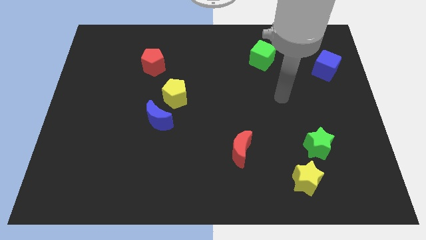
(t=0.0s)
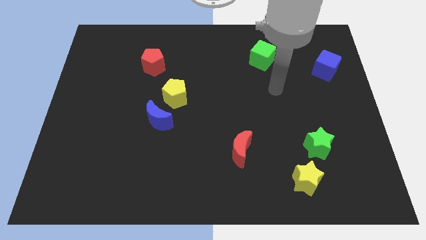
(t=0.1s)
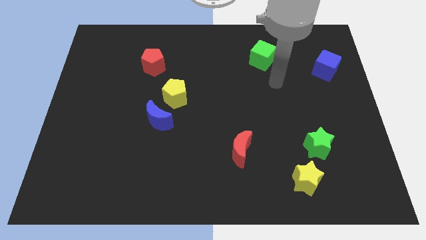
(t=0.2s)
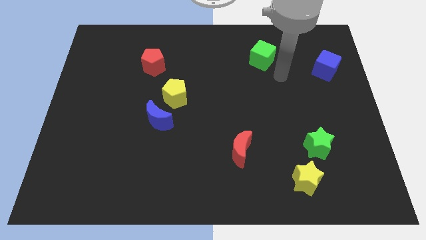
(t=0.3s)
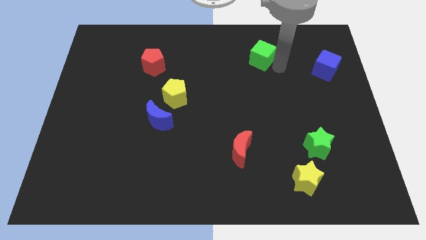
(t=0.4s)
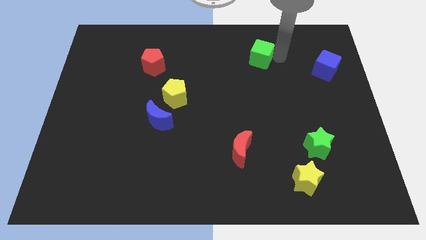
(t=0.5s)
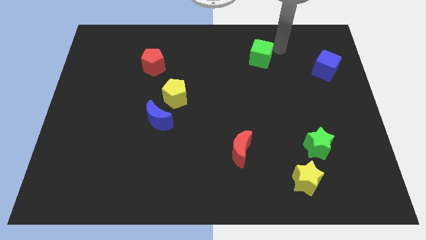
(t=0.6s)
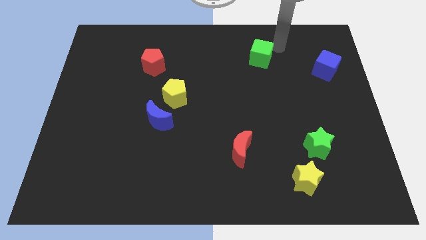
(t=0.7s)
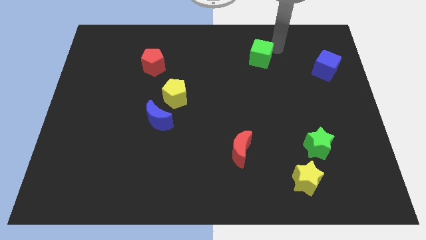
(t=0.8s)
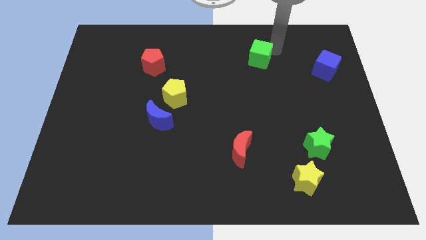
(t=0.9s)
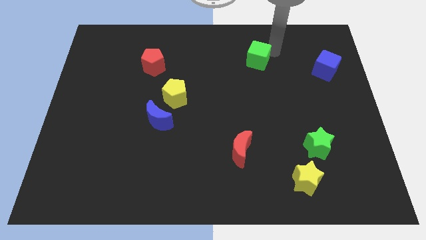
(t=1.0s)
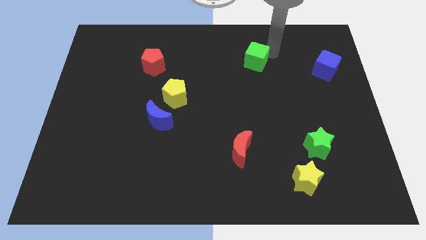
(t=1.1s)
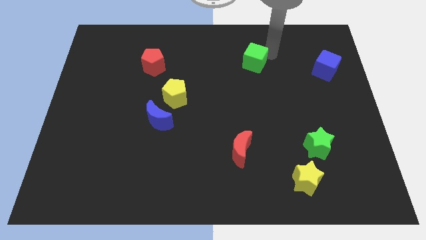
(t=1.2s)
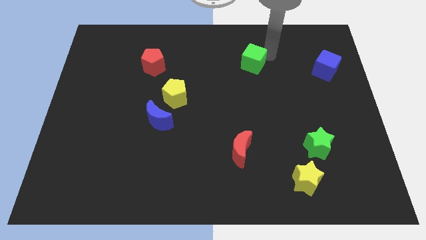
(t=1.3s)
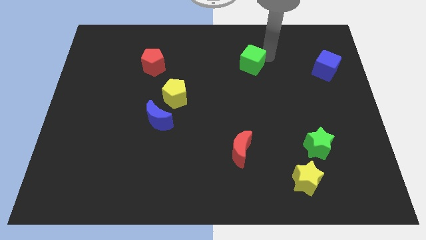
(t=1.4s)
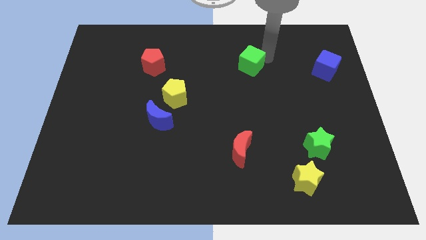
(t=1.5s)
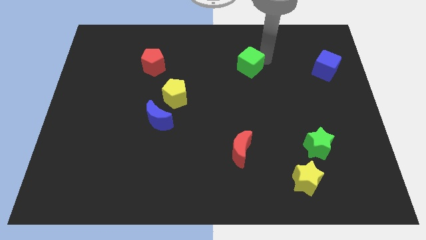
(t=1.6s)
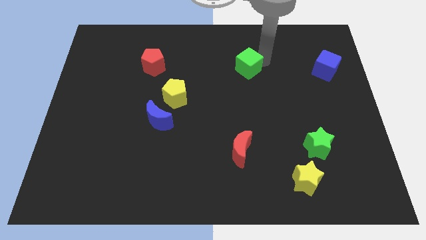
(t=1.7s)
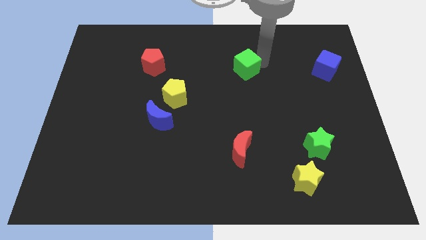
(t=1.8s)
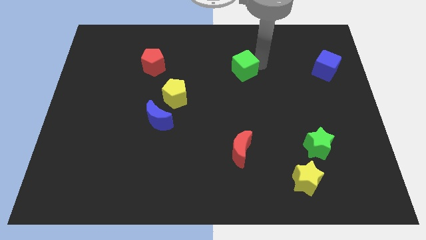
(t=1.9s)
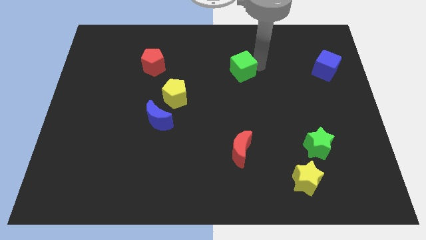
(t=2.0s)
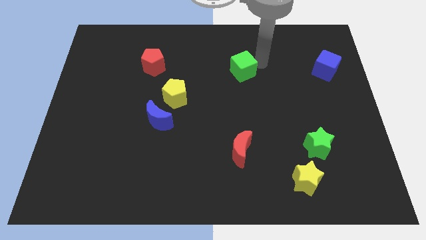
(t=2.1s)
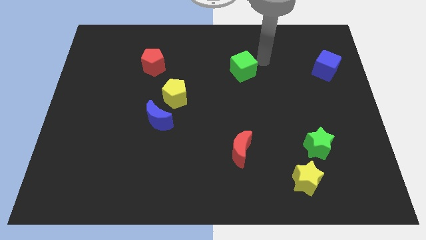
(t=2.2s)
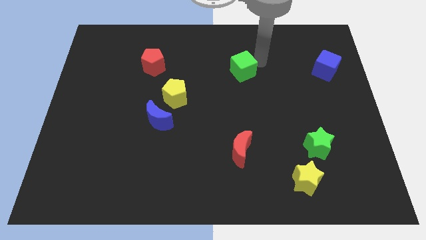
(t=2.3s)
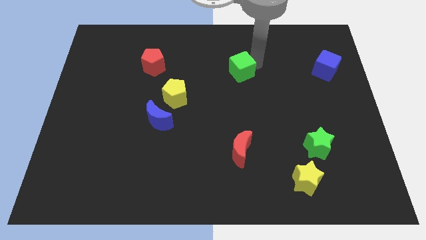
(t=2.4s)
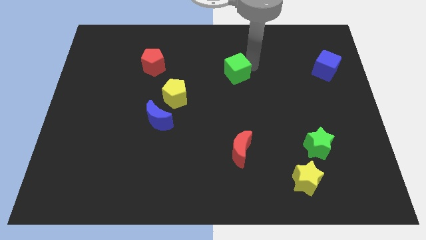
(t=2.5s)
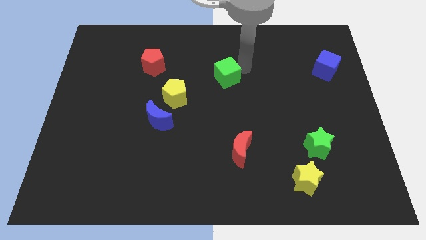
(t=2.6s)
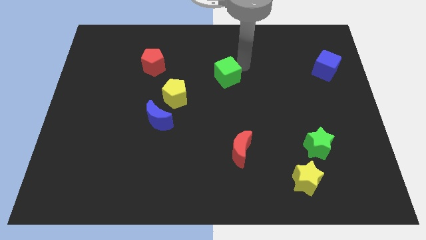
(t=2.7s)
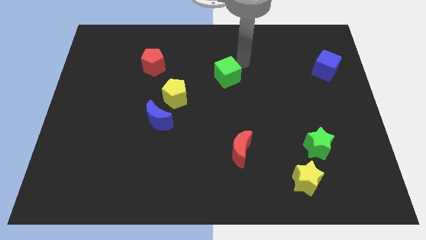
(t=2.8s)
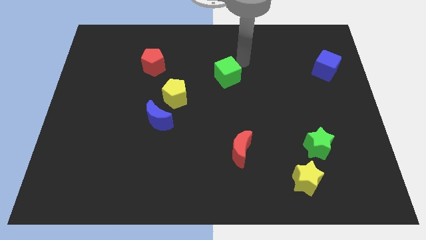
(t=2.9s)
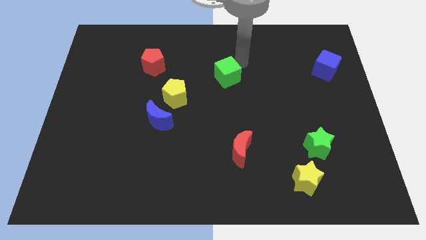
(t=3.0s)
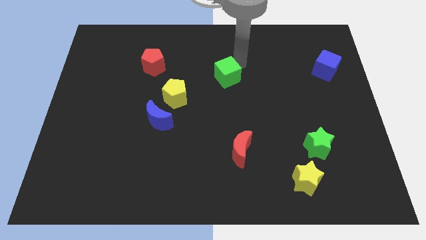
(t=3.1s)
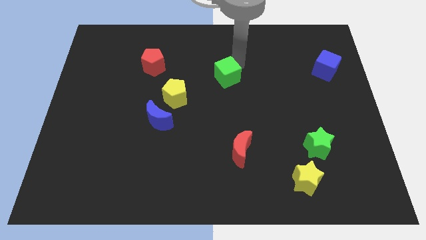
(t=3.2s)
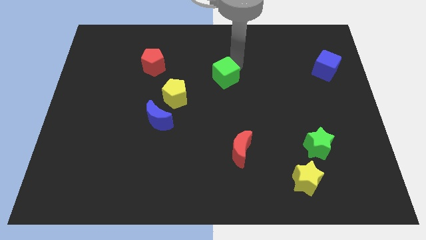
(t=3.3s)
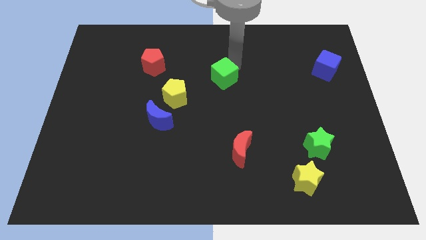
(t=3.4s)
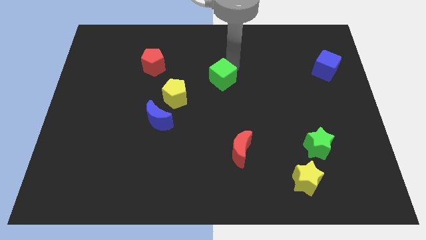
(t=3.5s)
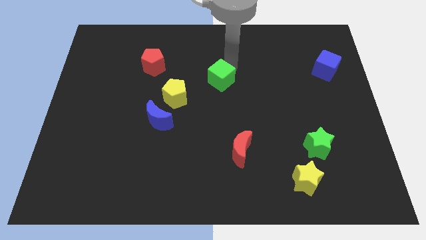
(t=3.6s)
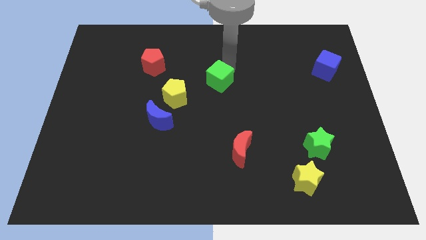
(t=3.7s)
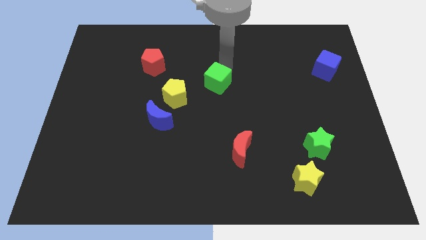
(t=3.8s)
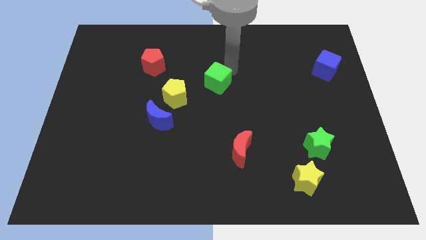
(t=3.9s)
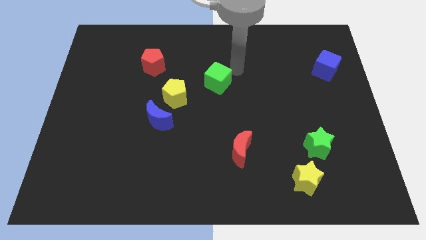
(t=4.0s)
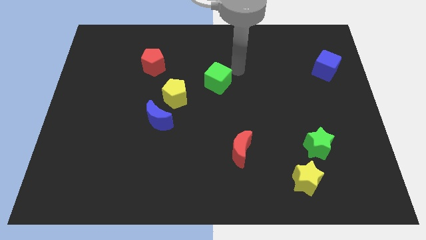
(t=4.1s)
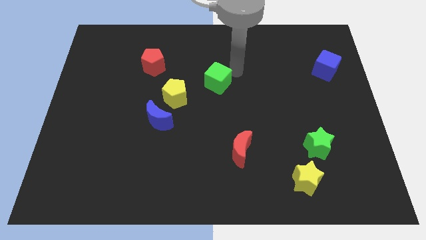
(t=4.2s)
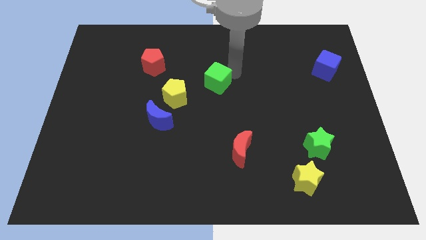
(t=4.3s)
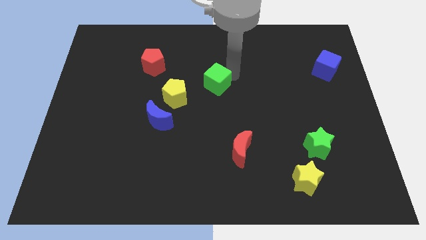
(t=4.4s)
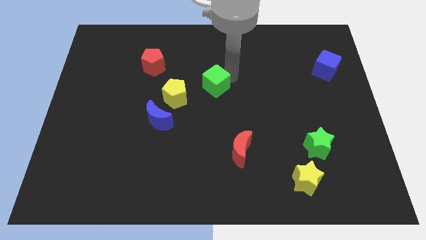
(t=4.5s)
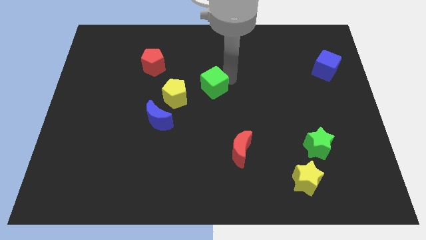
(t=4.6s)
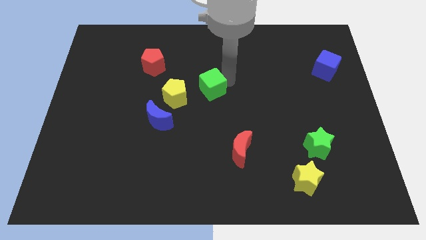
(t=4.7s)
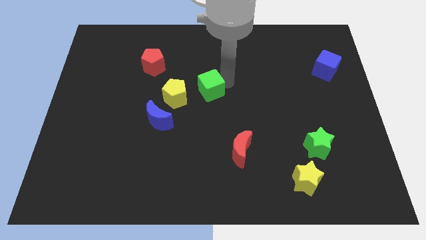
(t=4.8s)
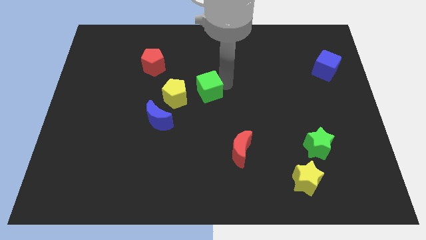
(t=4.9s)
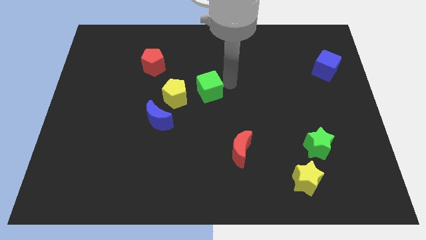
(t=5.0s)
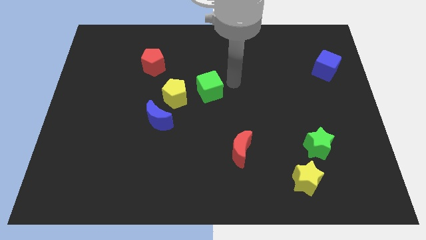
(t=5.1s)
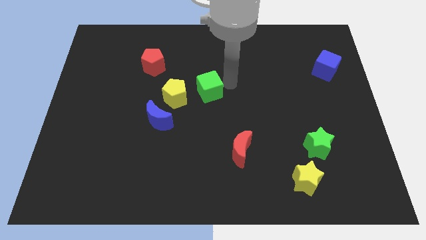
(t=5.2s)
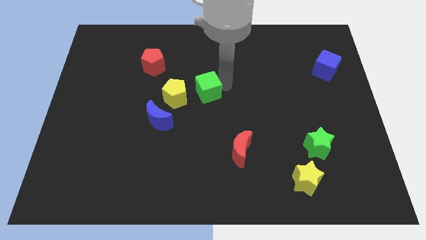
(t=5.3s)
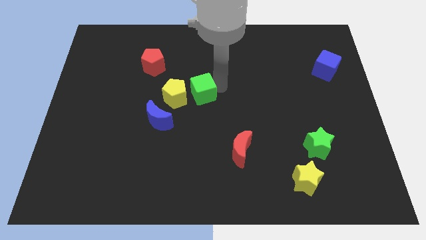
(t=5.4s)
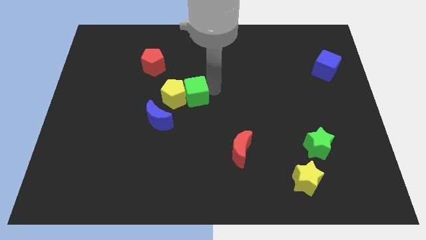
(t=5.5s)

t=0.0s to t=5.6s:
move the green cube close to the yellow pentagon

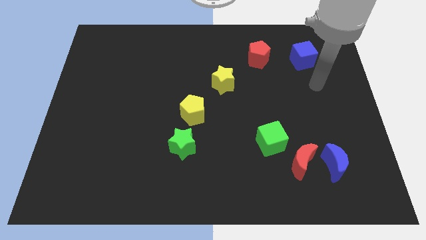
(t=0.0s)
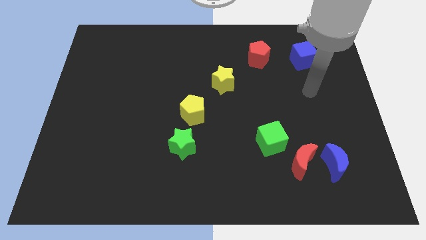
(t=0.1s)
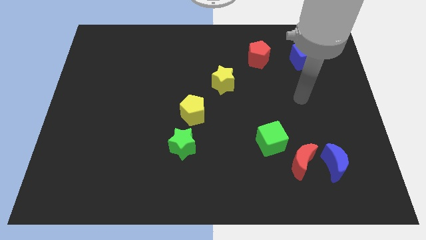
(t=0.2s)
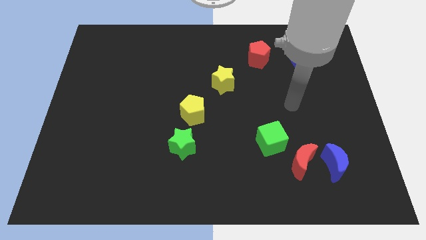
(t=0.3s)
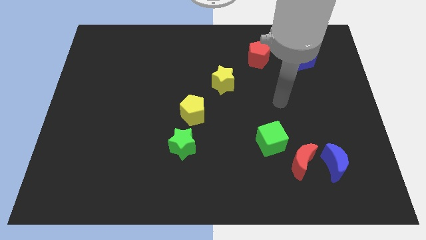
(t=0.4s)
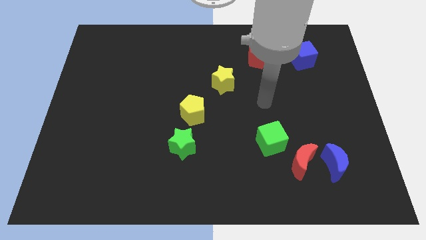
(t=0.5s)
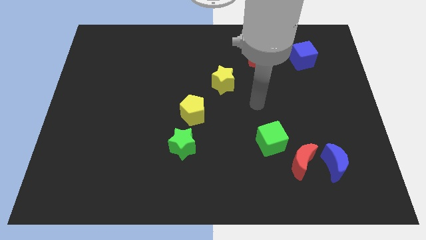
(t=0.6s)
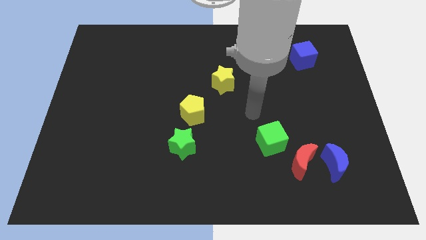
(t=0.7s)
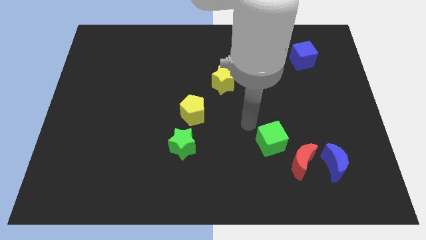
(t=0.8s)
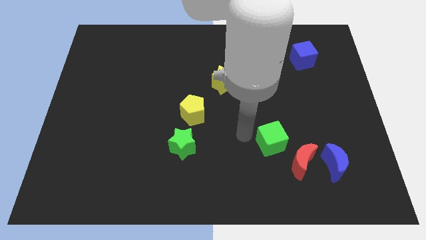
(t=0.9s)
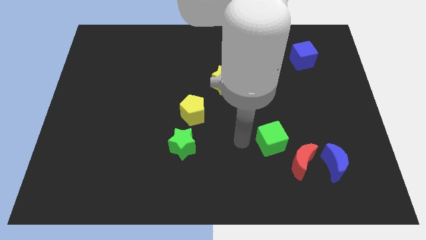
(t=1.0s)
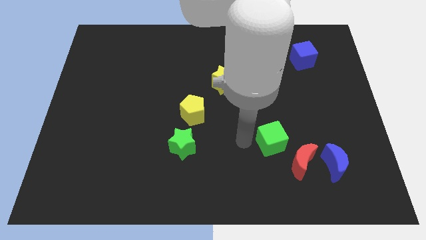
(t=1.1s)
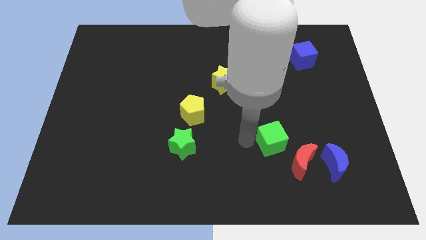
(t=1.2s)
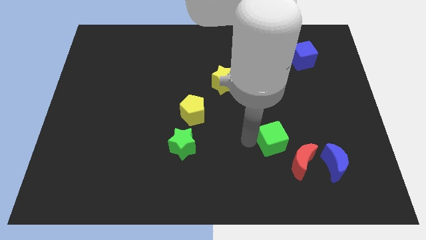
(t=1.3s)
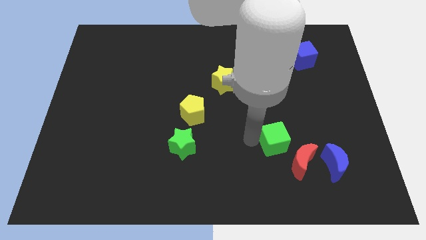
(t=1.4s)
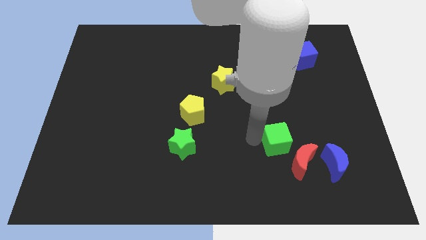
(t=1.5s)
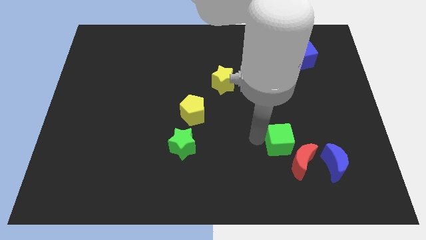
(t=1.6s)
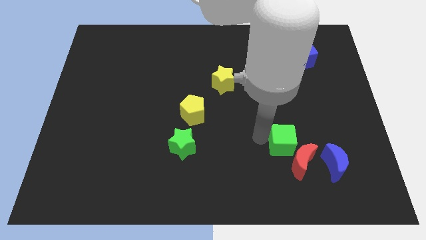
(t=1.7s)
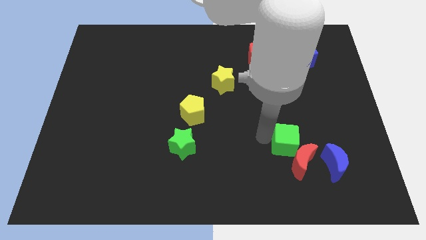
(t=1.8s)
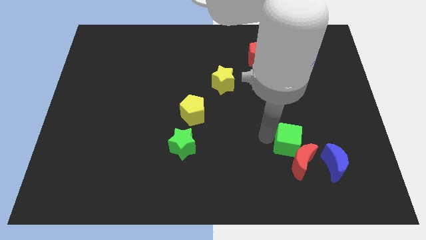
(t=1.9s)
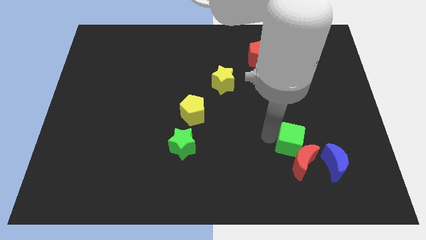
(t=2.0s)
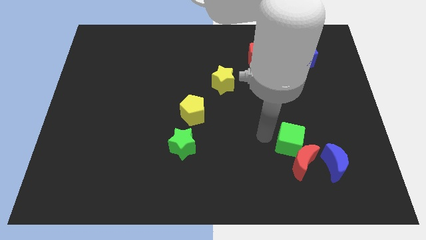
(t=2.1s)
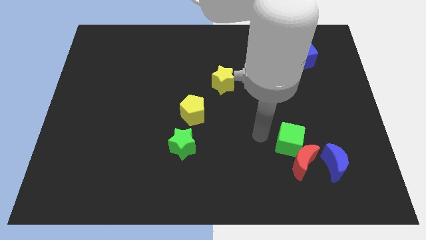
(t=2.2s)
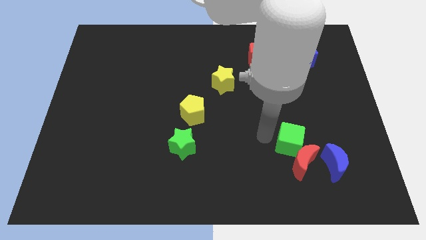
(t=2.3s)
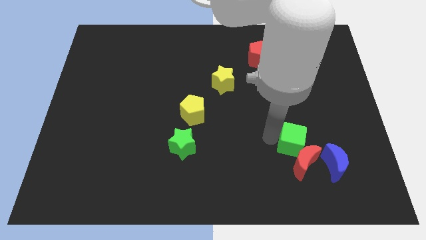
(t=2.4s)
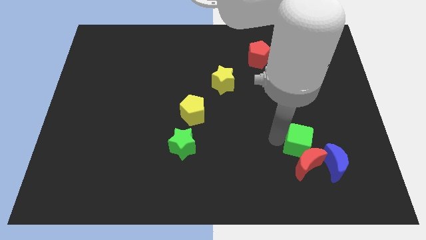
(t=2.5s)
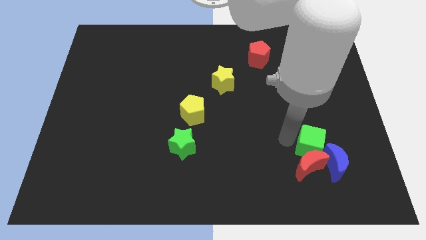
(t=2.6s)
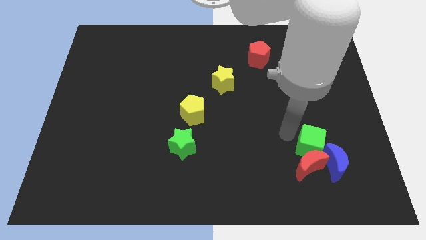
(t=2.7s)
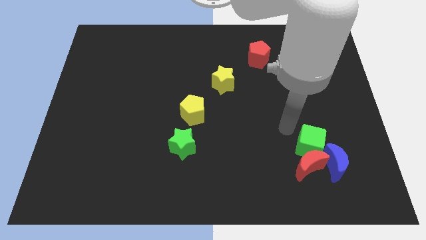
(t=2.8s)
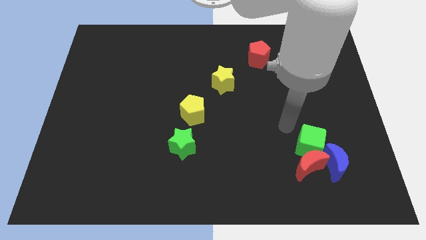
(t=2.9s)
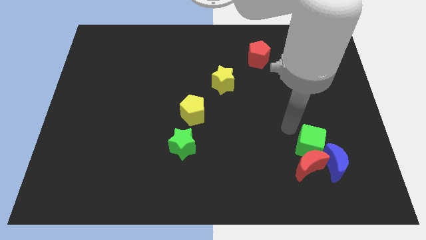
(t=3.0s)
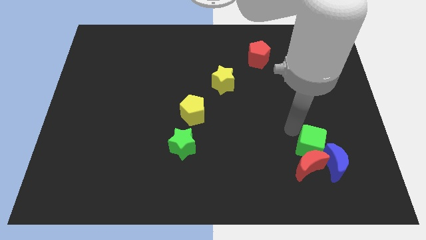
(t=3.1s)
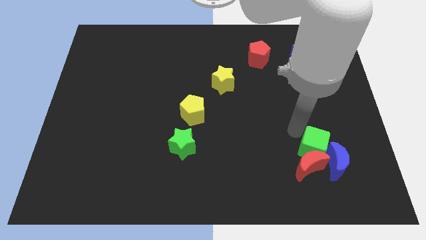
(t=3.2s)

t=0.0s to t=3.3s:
put the green cube next to the blue moon
